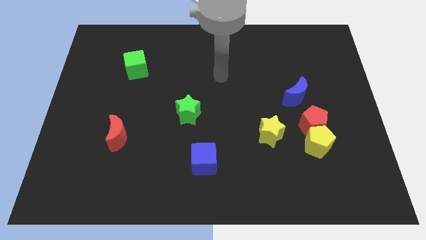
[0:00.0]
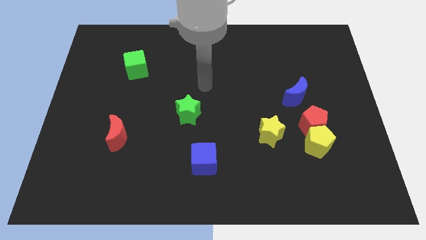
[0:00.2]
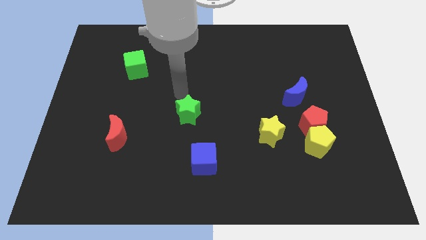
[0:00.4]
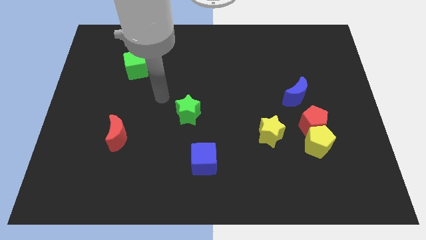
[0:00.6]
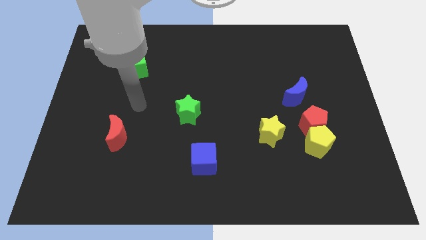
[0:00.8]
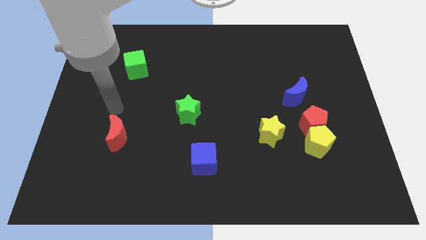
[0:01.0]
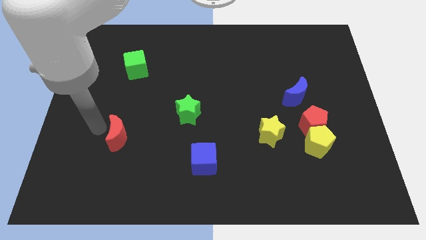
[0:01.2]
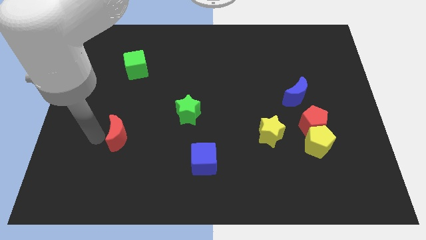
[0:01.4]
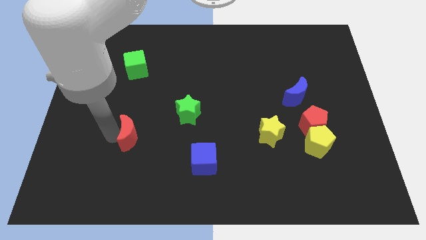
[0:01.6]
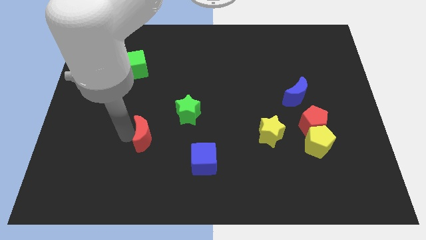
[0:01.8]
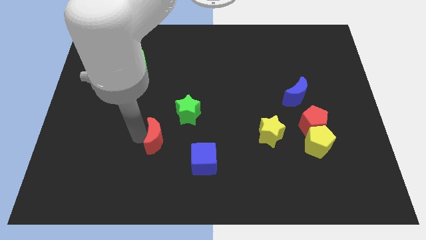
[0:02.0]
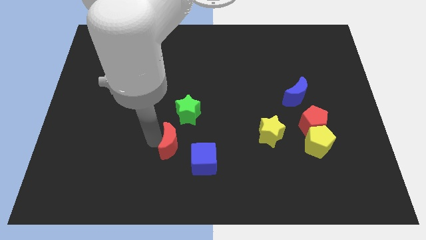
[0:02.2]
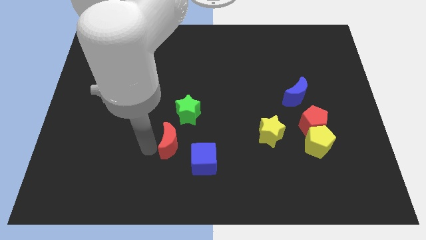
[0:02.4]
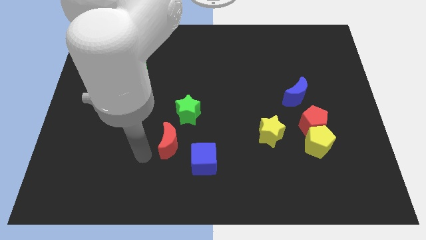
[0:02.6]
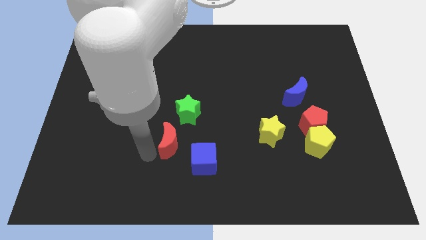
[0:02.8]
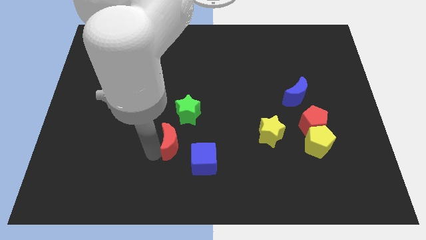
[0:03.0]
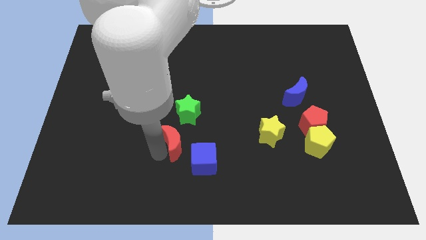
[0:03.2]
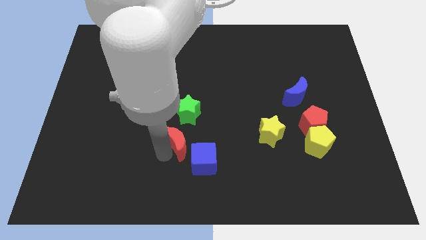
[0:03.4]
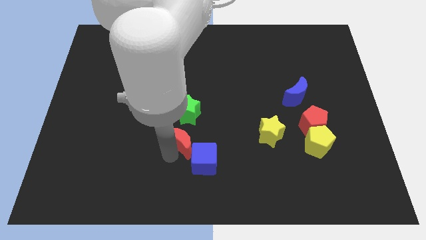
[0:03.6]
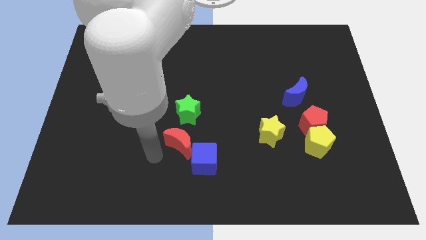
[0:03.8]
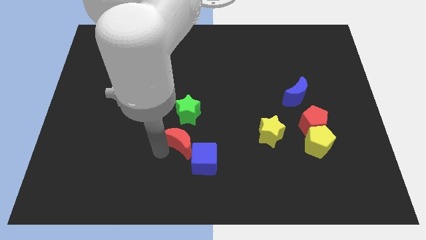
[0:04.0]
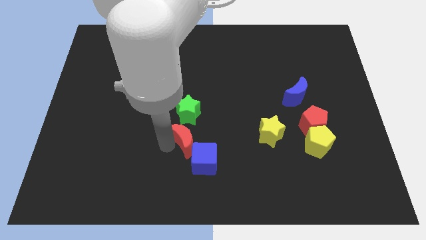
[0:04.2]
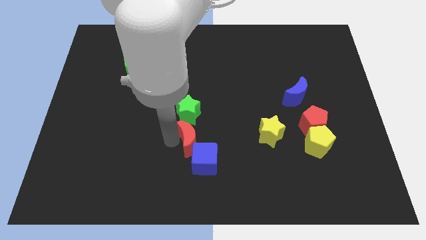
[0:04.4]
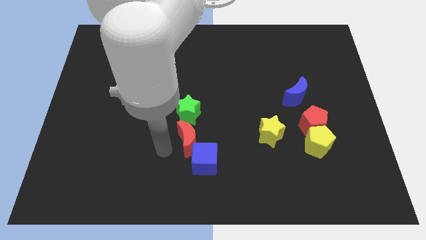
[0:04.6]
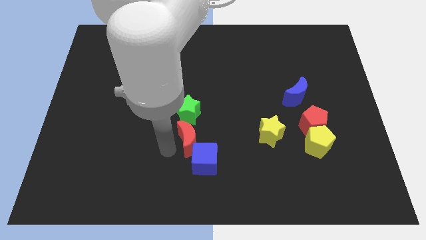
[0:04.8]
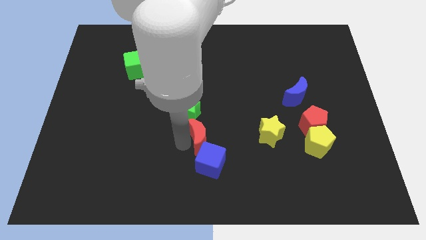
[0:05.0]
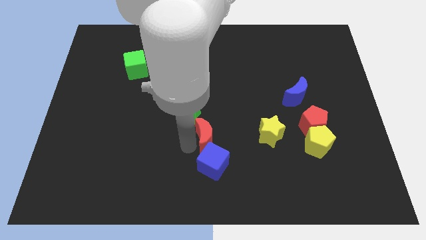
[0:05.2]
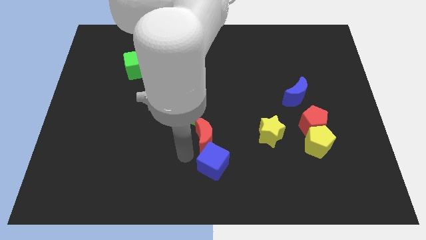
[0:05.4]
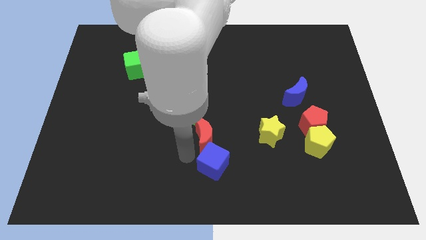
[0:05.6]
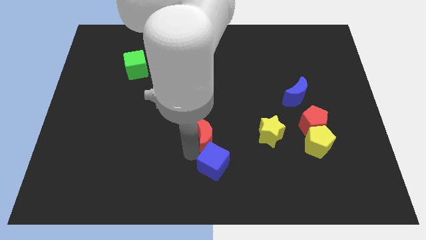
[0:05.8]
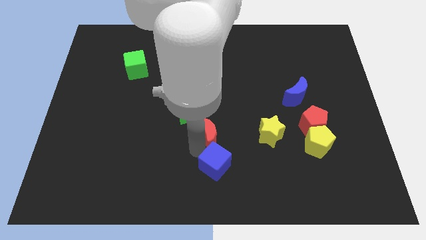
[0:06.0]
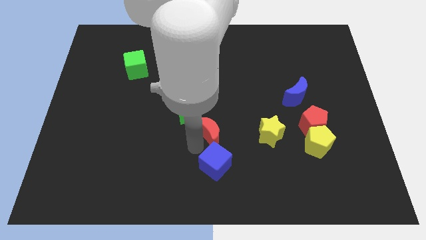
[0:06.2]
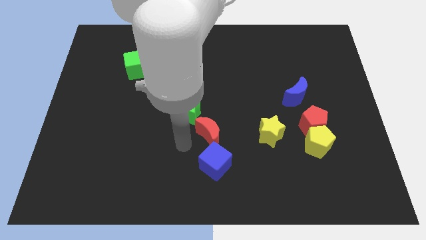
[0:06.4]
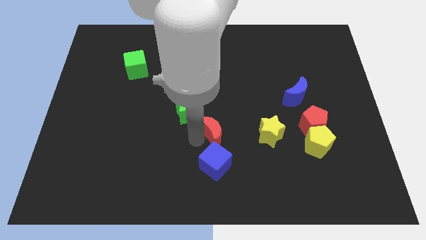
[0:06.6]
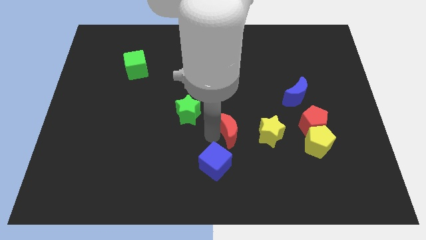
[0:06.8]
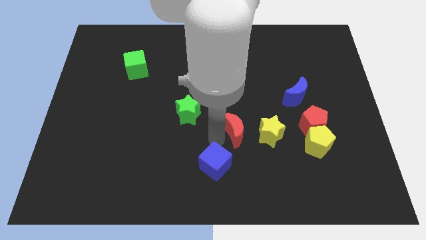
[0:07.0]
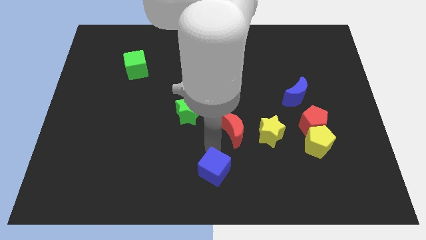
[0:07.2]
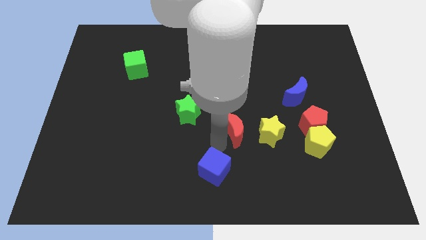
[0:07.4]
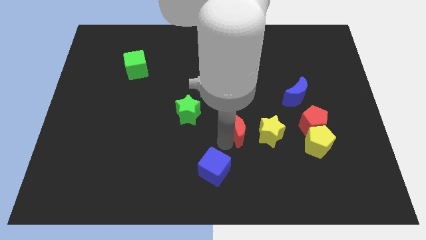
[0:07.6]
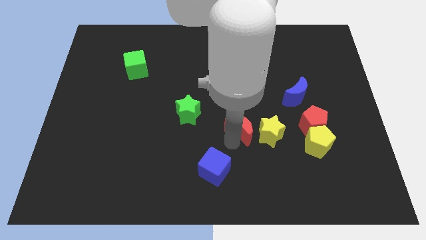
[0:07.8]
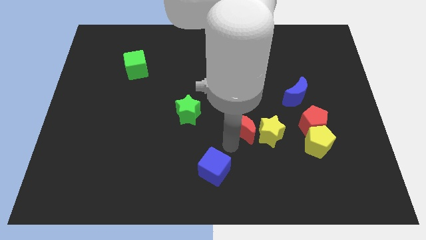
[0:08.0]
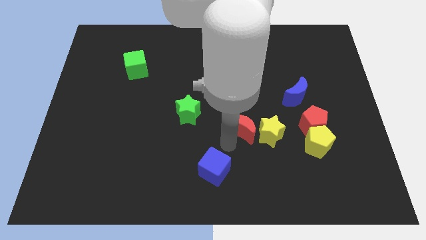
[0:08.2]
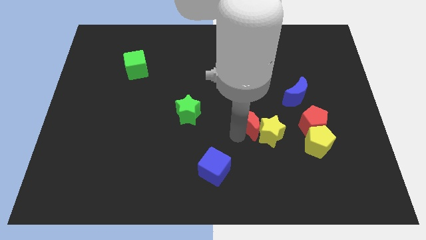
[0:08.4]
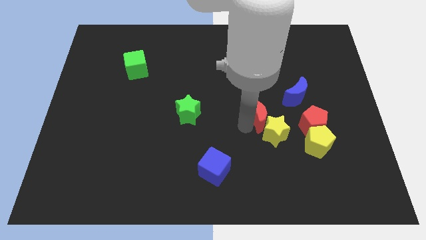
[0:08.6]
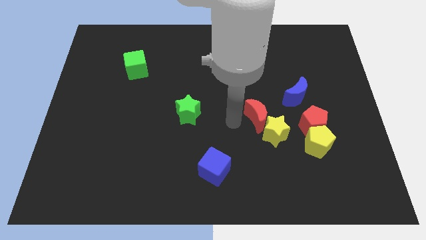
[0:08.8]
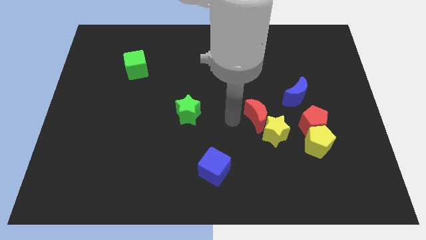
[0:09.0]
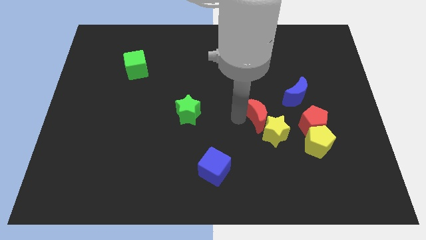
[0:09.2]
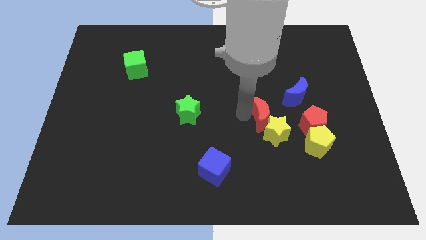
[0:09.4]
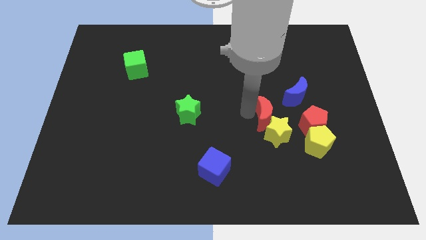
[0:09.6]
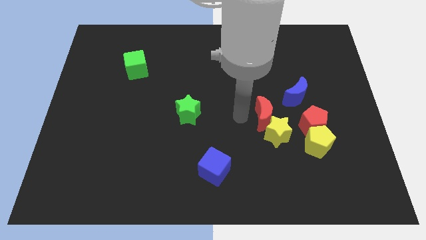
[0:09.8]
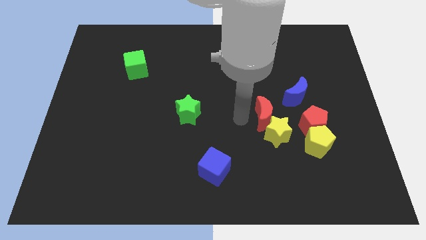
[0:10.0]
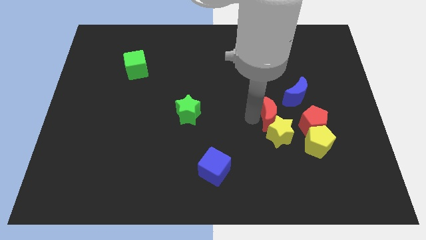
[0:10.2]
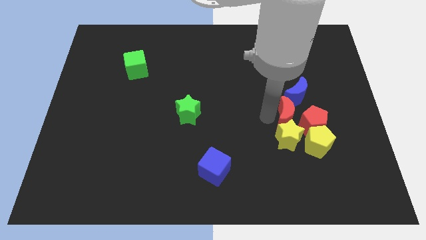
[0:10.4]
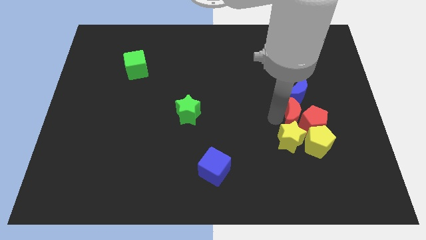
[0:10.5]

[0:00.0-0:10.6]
put the red moon to the top of the yellow pentagon
